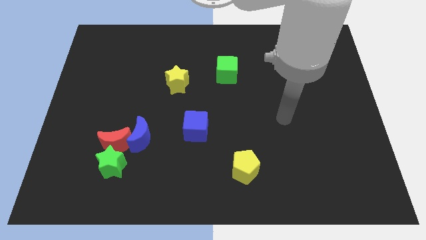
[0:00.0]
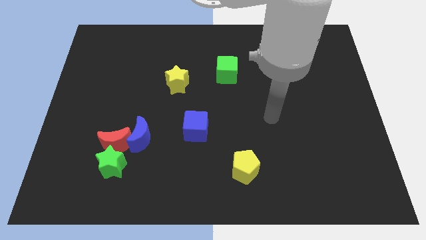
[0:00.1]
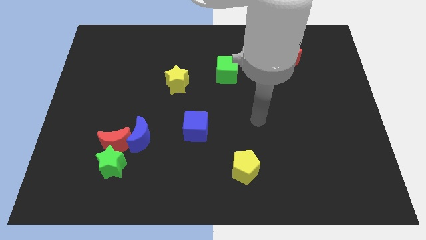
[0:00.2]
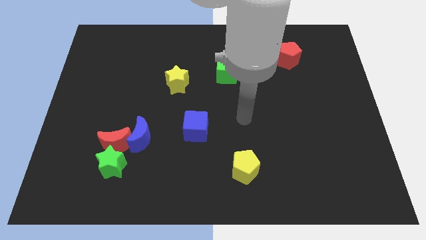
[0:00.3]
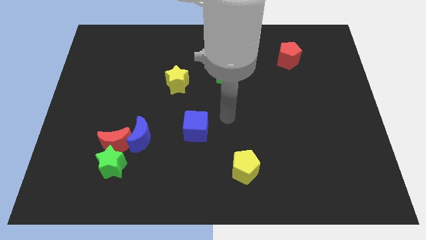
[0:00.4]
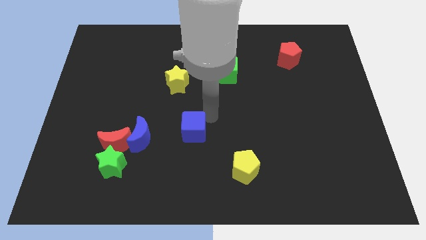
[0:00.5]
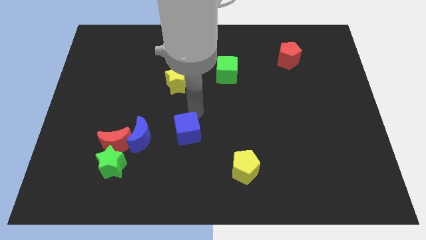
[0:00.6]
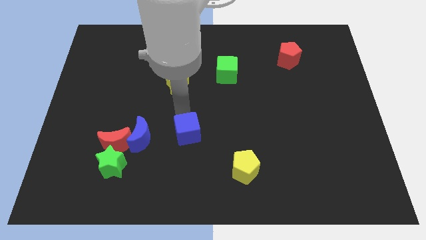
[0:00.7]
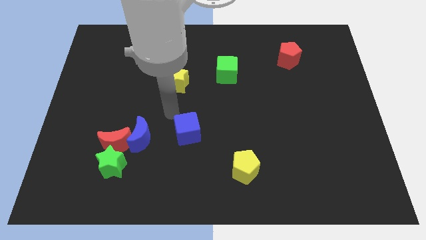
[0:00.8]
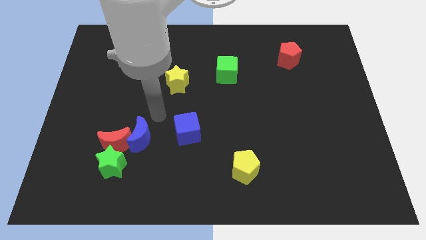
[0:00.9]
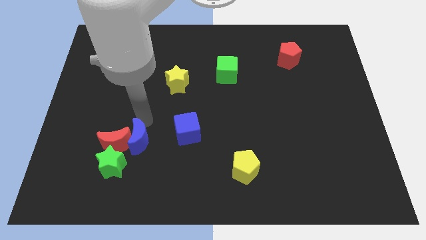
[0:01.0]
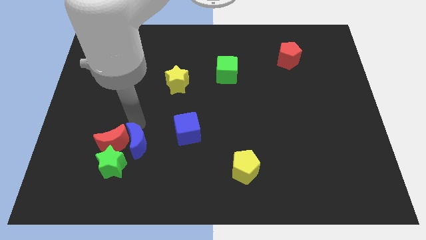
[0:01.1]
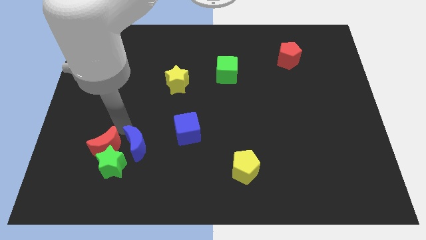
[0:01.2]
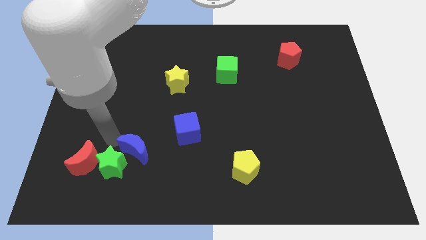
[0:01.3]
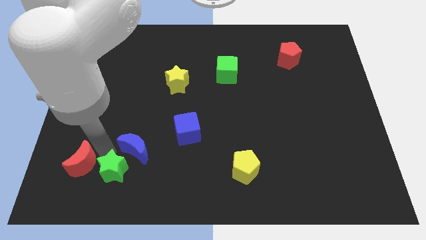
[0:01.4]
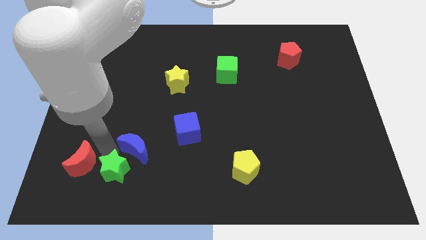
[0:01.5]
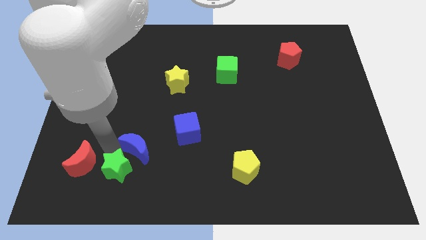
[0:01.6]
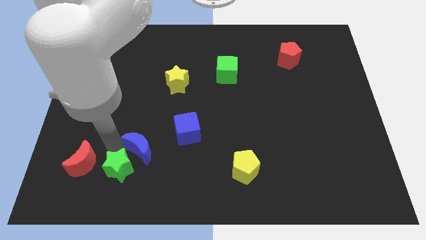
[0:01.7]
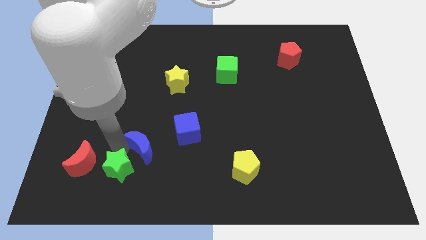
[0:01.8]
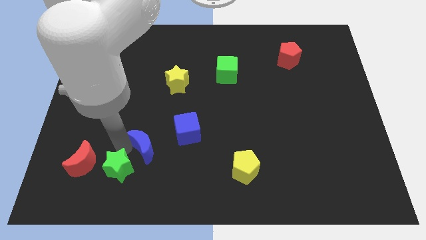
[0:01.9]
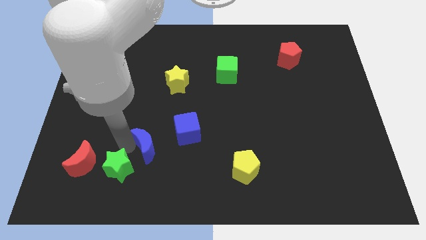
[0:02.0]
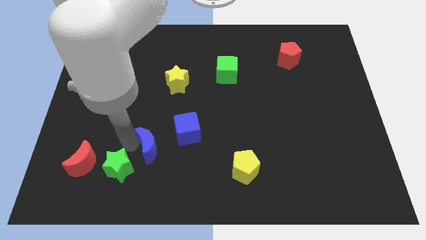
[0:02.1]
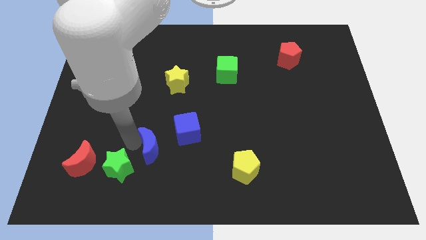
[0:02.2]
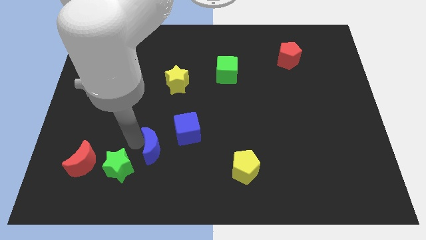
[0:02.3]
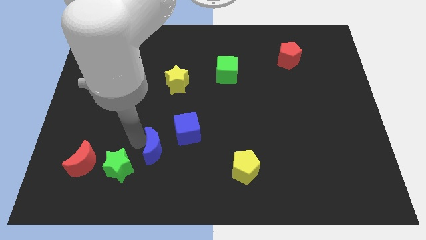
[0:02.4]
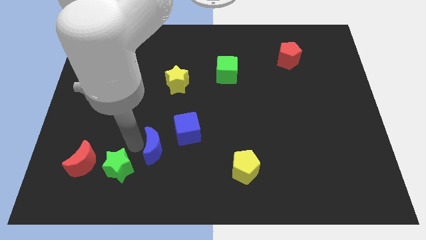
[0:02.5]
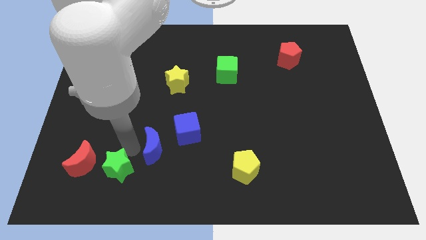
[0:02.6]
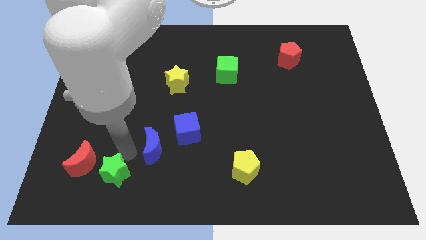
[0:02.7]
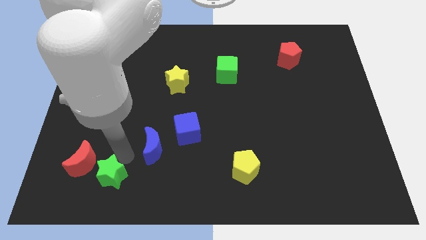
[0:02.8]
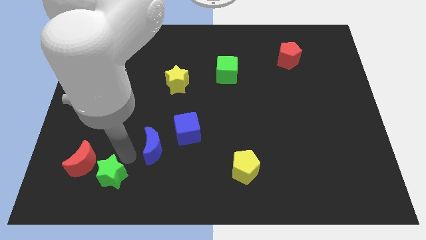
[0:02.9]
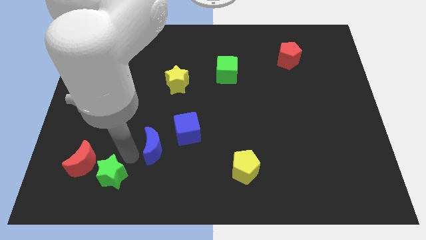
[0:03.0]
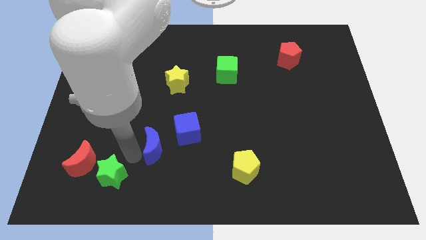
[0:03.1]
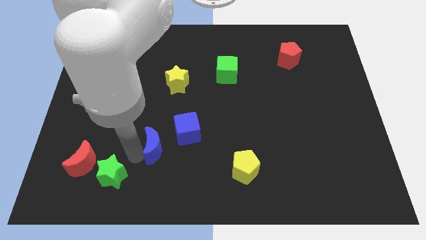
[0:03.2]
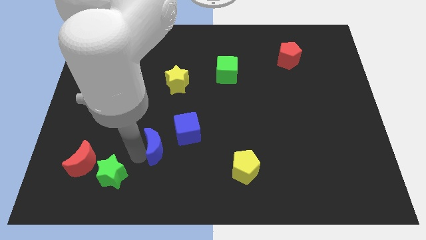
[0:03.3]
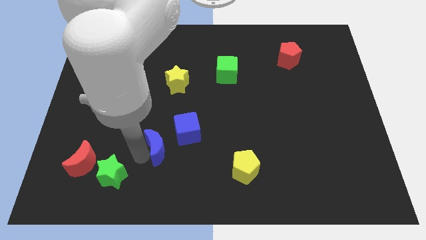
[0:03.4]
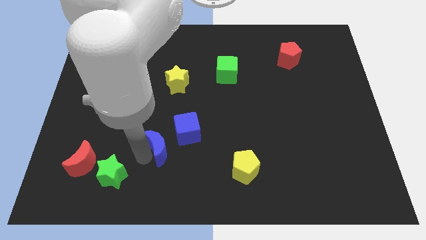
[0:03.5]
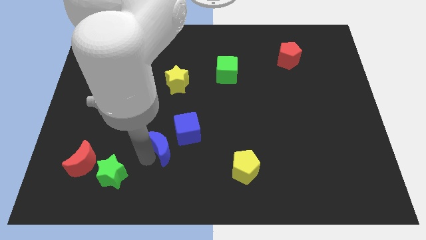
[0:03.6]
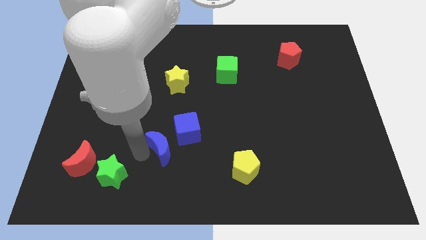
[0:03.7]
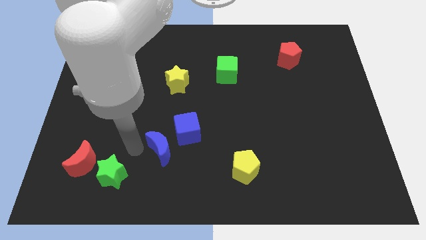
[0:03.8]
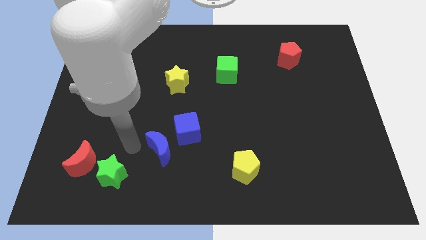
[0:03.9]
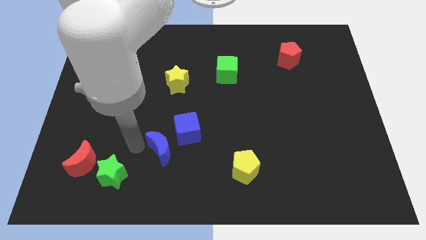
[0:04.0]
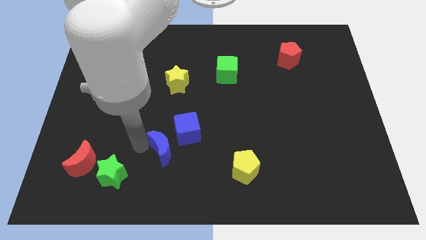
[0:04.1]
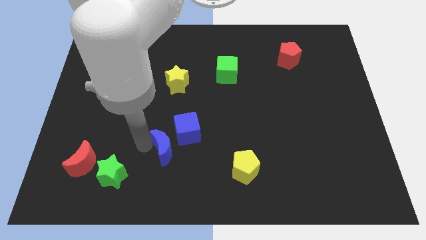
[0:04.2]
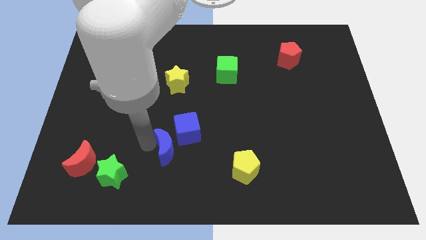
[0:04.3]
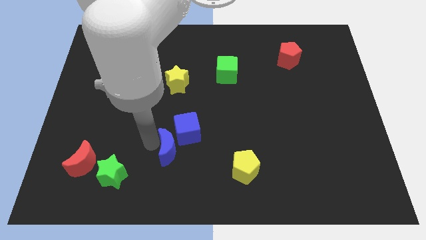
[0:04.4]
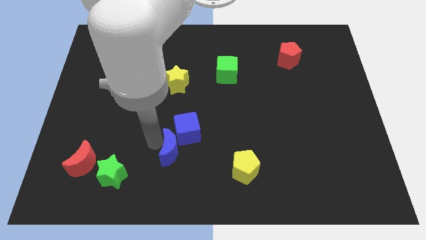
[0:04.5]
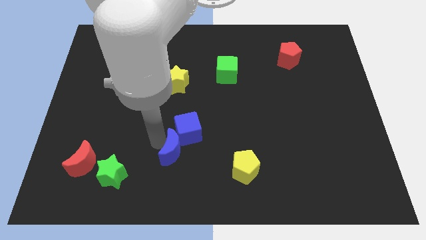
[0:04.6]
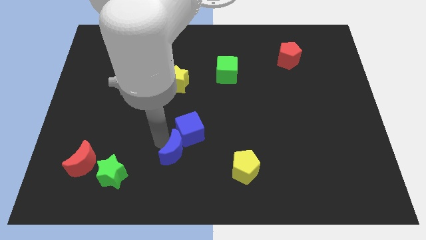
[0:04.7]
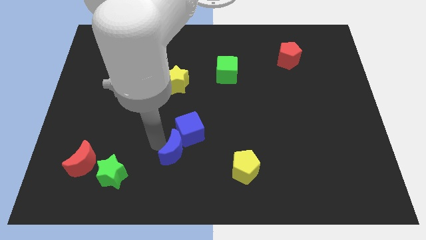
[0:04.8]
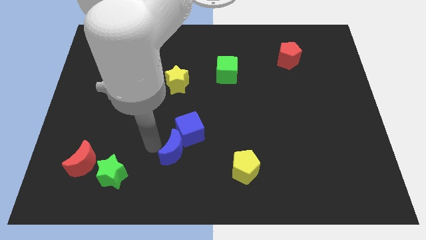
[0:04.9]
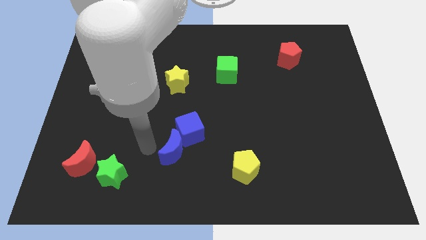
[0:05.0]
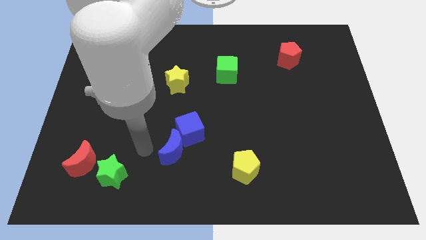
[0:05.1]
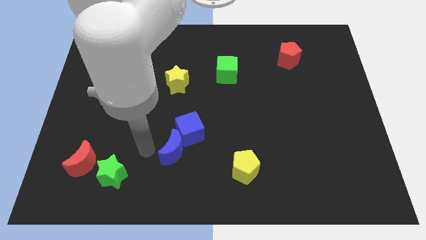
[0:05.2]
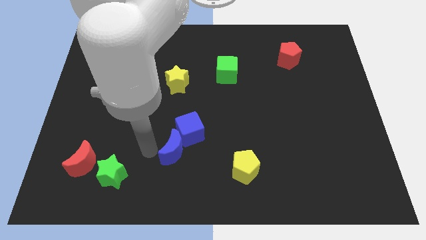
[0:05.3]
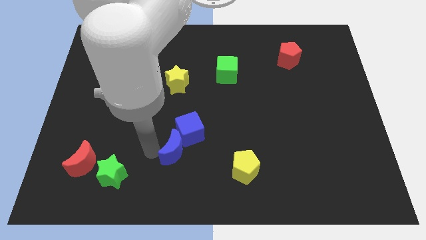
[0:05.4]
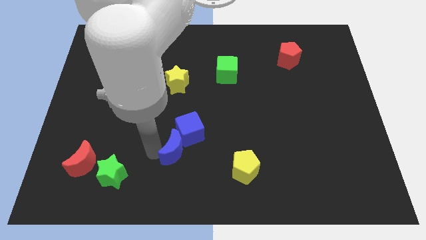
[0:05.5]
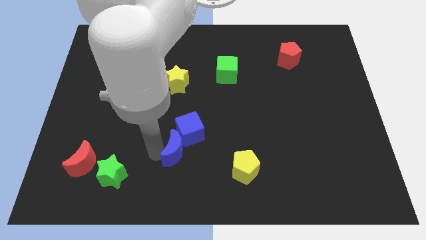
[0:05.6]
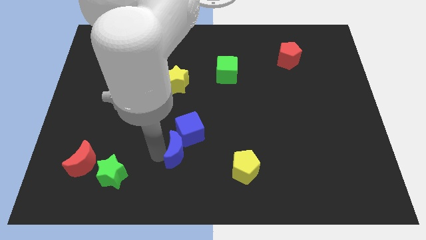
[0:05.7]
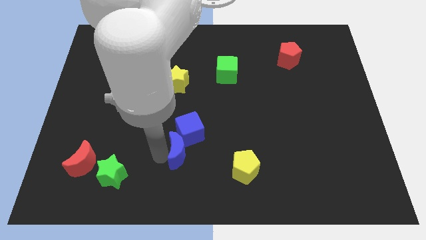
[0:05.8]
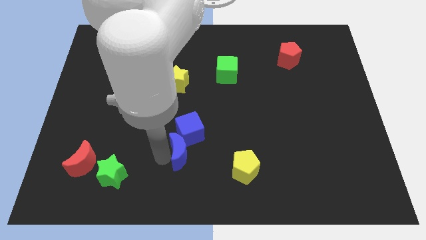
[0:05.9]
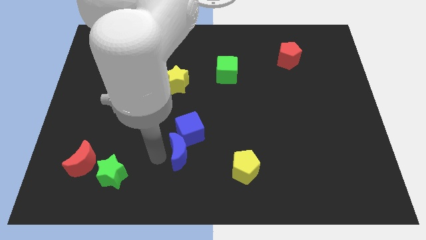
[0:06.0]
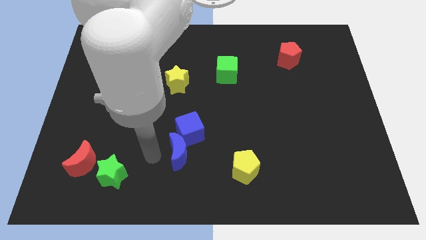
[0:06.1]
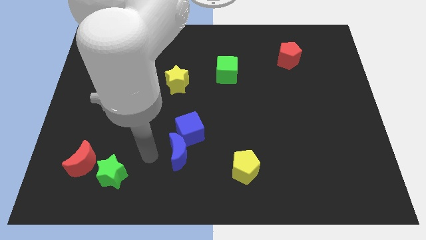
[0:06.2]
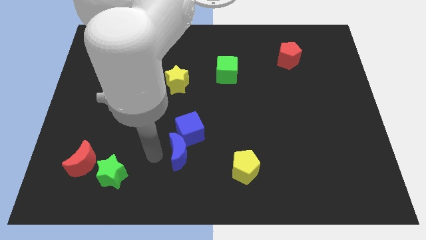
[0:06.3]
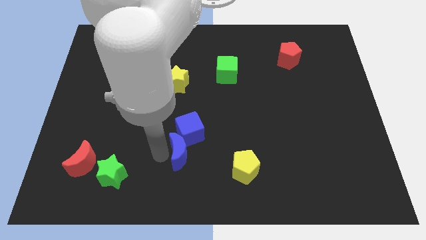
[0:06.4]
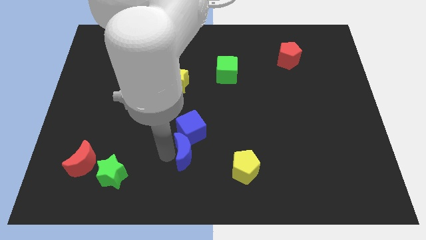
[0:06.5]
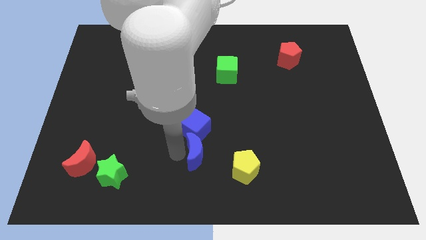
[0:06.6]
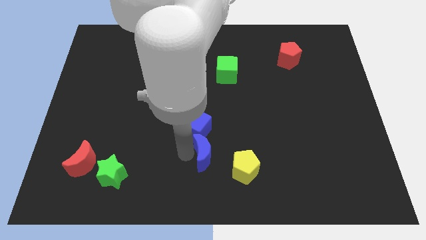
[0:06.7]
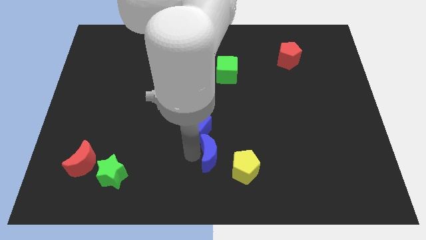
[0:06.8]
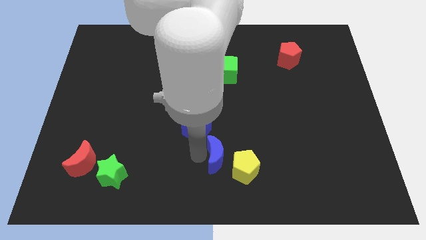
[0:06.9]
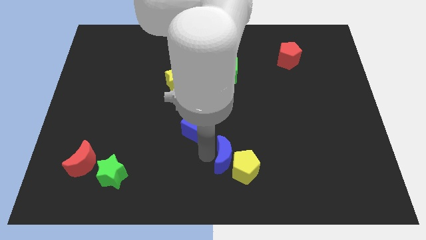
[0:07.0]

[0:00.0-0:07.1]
slide the blue moon to the yellow pentagon
